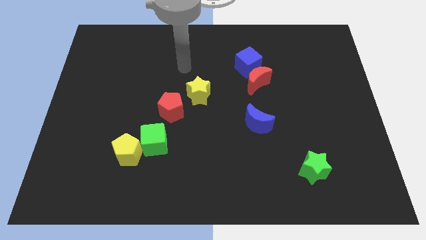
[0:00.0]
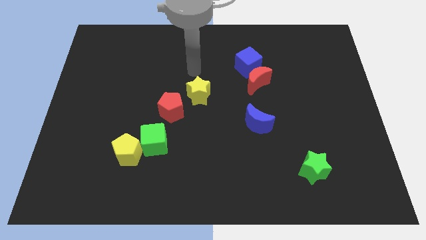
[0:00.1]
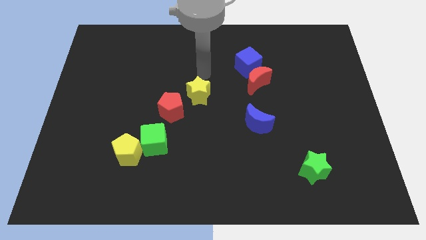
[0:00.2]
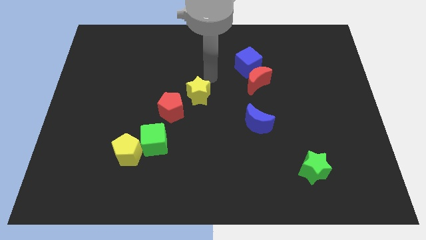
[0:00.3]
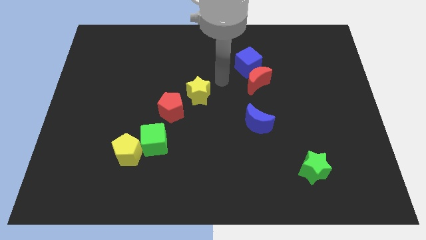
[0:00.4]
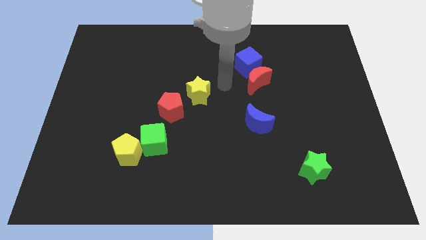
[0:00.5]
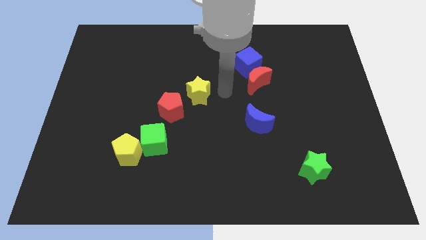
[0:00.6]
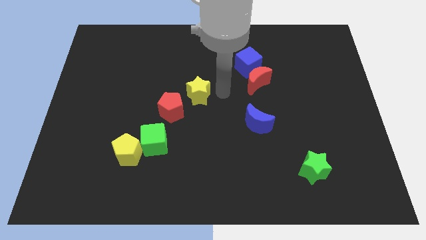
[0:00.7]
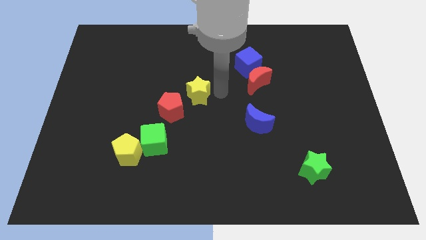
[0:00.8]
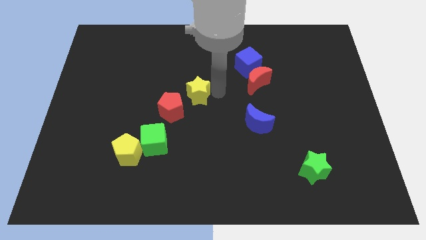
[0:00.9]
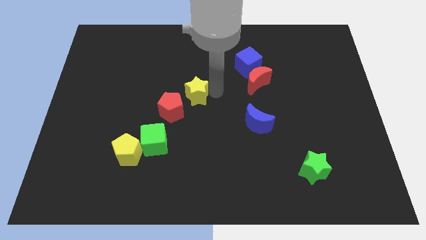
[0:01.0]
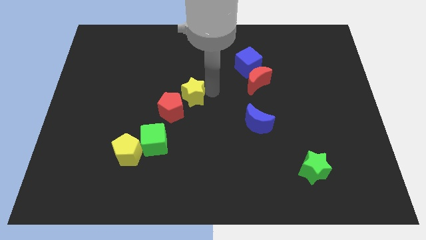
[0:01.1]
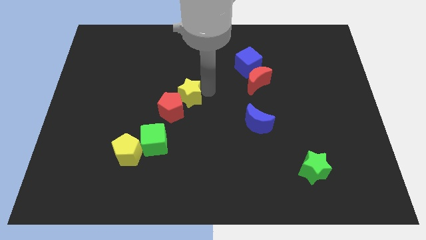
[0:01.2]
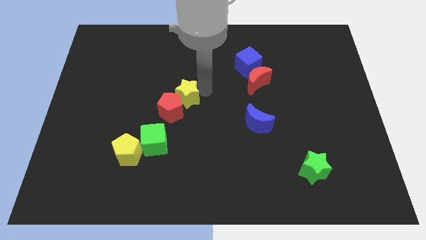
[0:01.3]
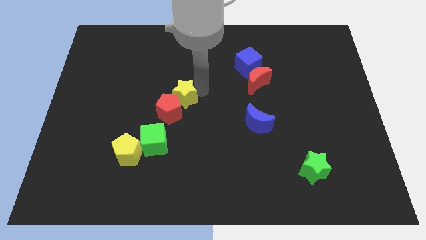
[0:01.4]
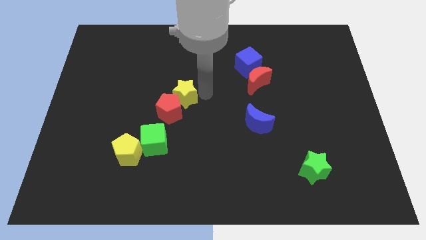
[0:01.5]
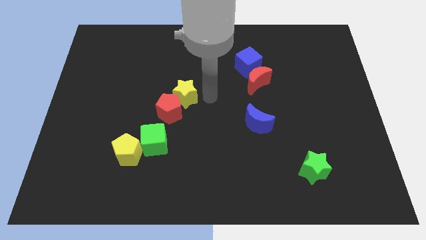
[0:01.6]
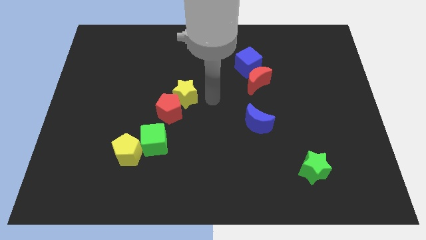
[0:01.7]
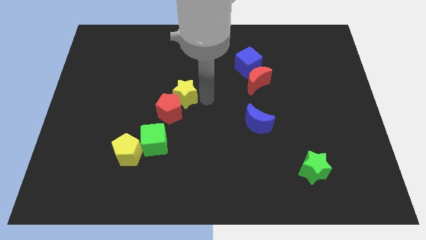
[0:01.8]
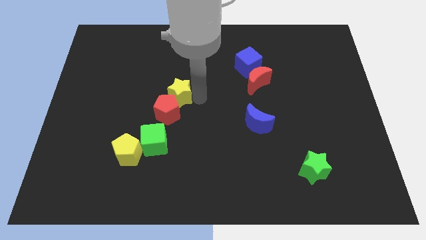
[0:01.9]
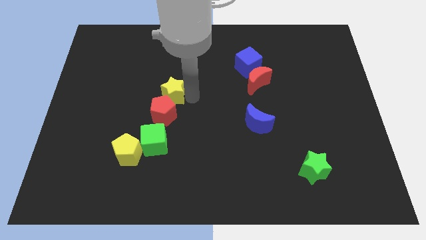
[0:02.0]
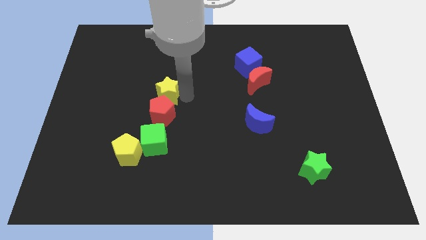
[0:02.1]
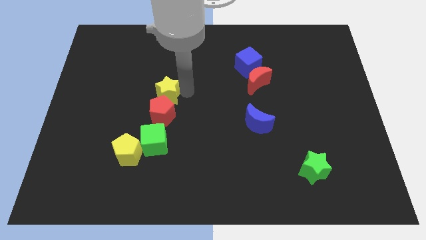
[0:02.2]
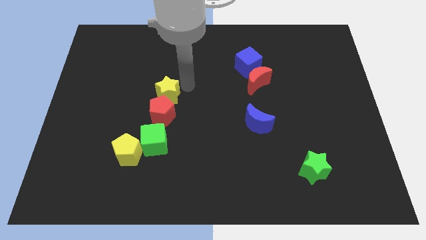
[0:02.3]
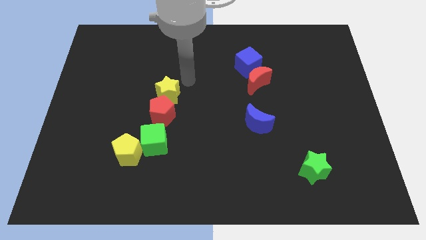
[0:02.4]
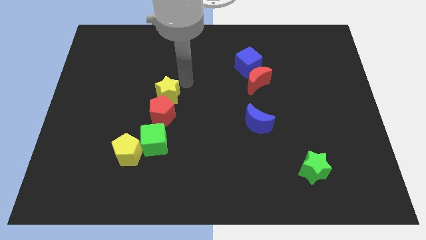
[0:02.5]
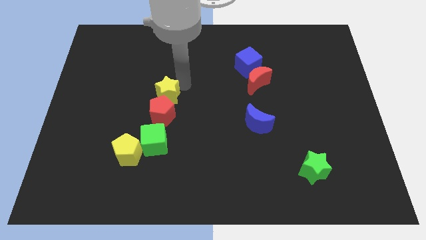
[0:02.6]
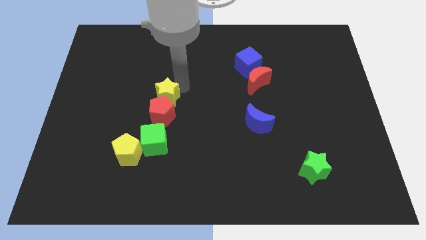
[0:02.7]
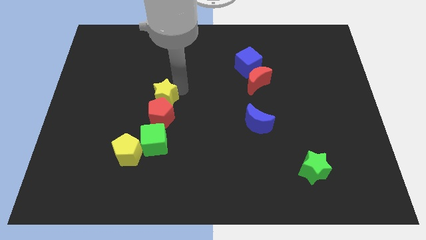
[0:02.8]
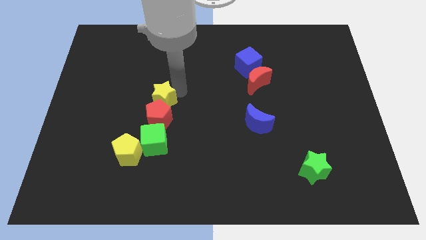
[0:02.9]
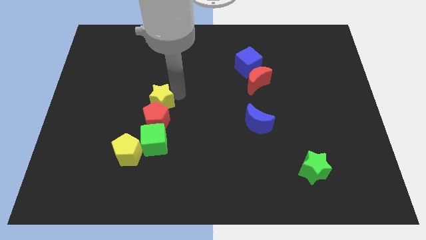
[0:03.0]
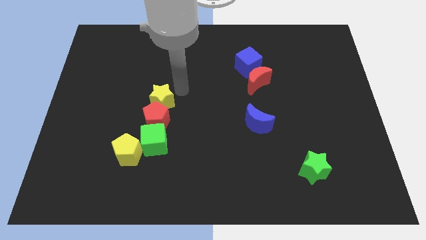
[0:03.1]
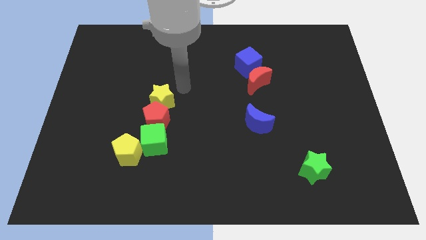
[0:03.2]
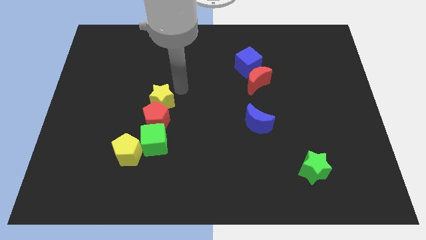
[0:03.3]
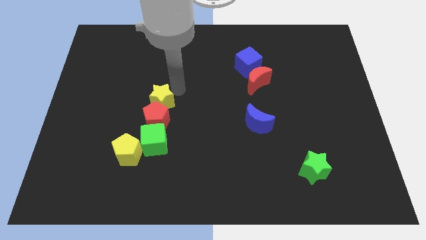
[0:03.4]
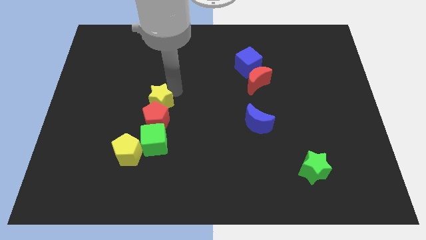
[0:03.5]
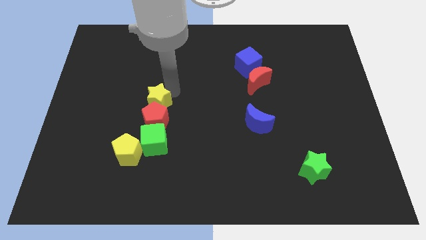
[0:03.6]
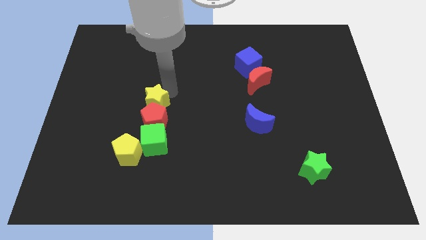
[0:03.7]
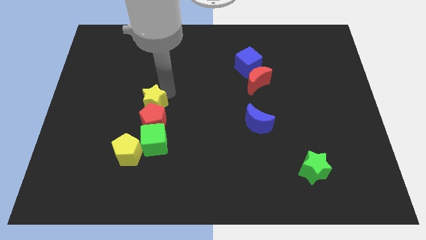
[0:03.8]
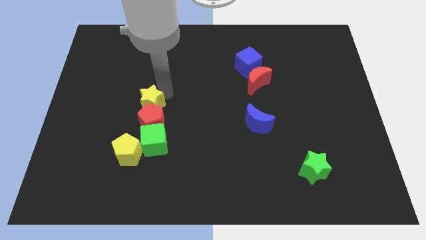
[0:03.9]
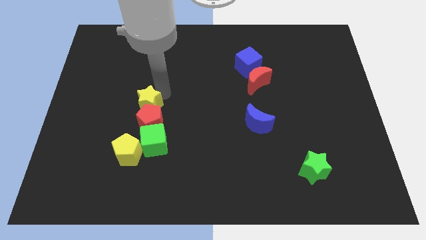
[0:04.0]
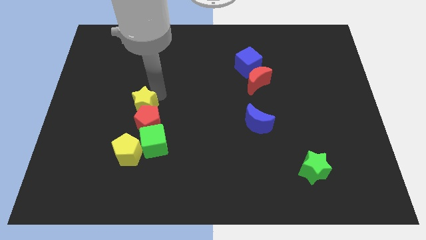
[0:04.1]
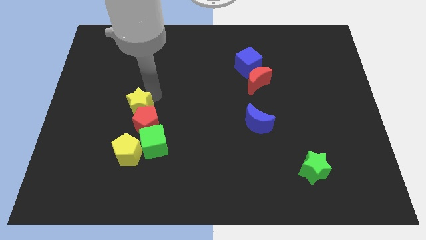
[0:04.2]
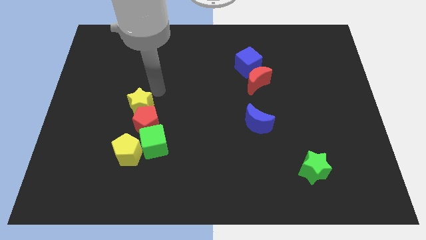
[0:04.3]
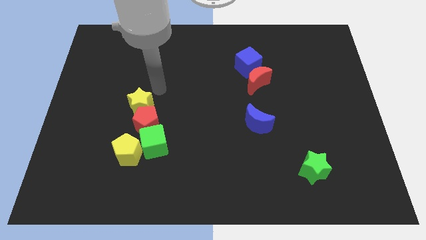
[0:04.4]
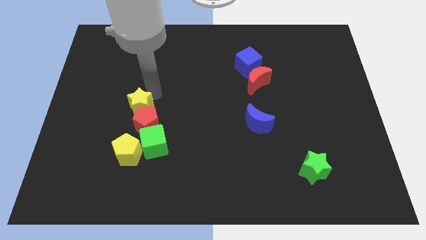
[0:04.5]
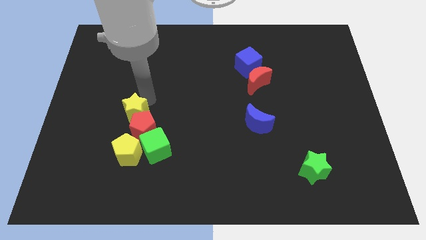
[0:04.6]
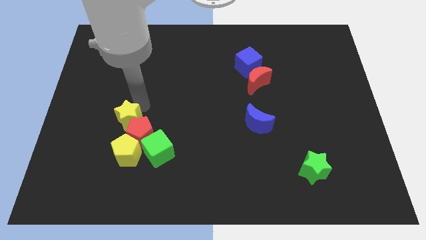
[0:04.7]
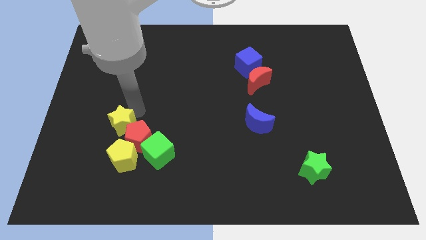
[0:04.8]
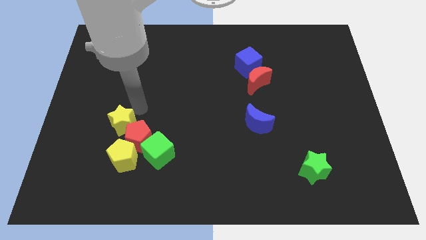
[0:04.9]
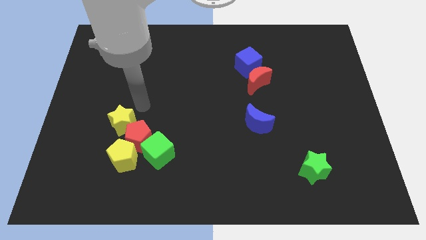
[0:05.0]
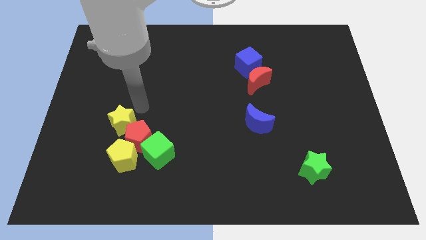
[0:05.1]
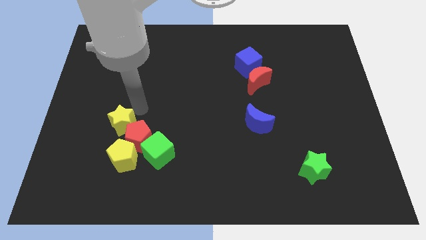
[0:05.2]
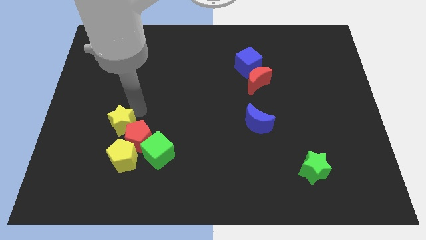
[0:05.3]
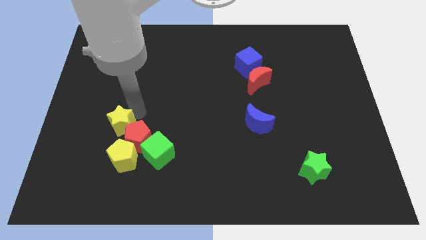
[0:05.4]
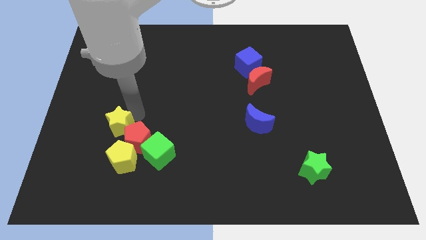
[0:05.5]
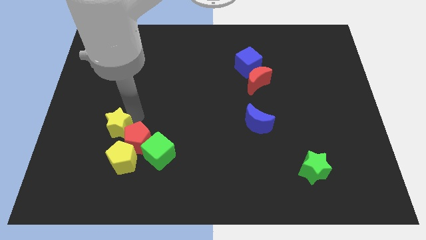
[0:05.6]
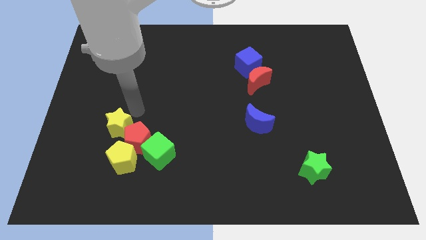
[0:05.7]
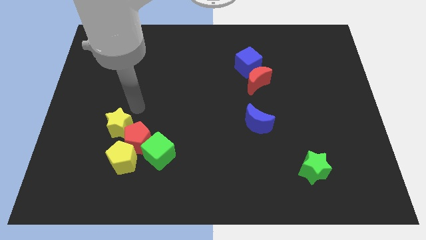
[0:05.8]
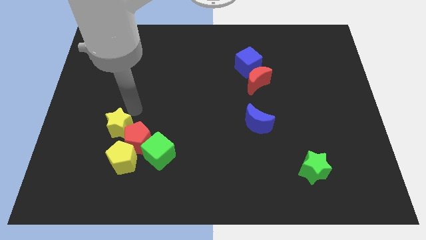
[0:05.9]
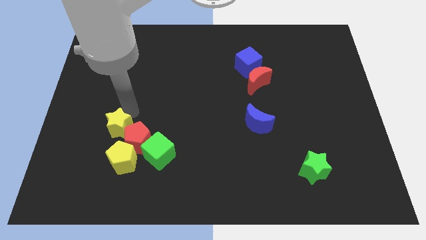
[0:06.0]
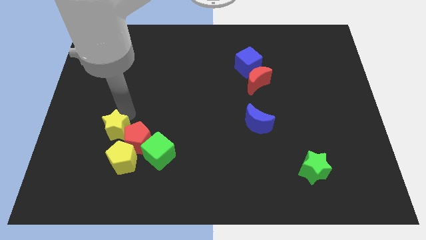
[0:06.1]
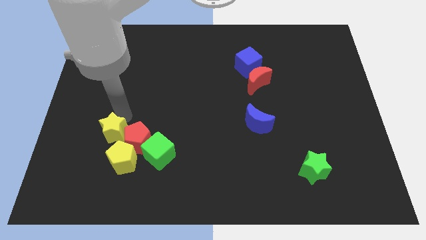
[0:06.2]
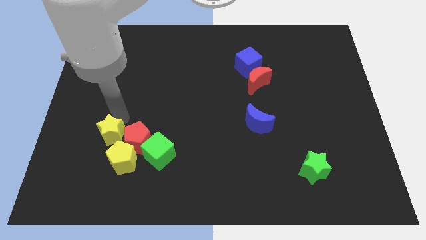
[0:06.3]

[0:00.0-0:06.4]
push the yellow star diagonally downwards and to the left

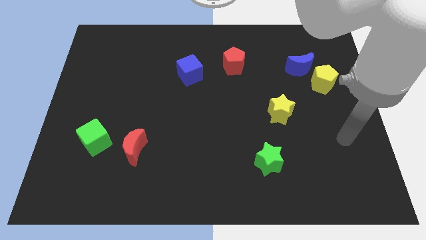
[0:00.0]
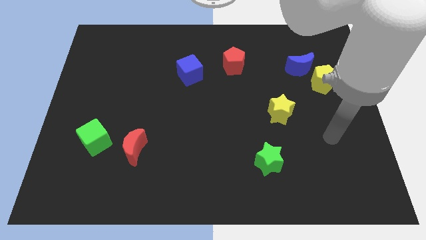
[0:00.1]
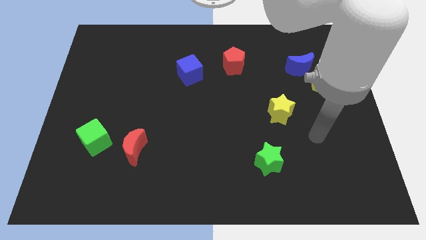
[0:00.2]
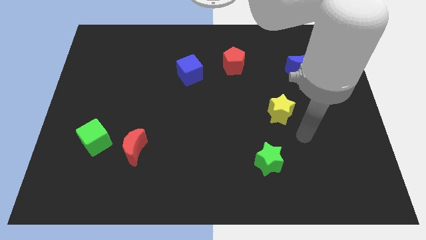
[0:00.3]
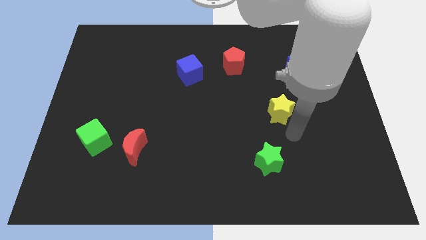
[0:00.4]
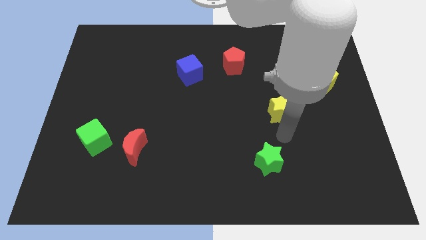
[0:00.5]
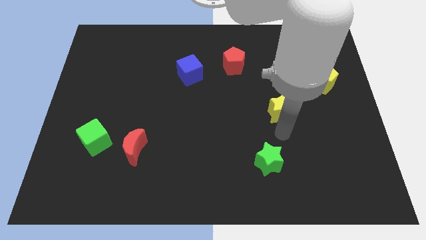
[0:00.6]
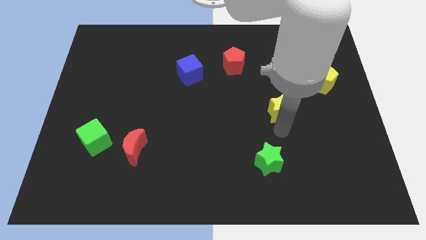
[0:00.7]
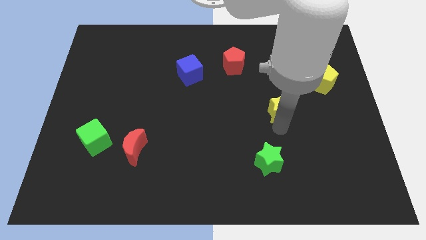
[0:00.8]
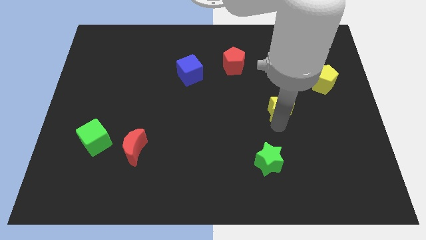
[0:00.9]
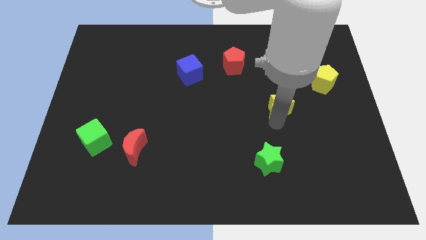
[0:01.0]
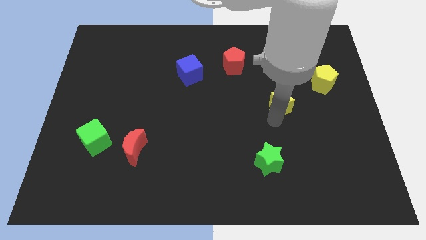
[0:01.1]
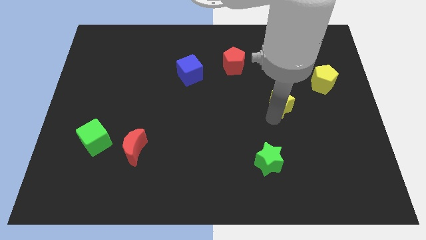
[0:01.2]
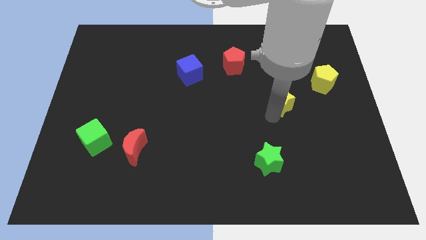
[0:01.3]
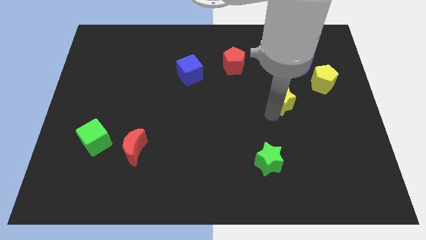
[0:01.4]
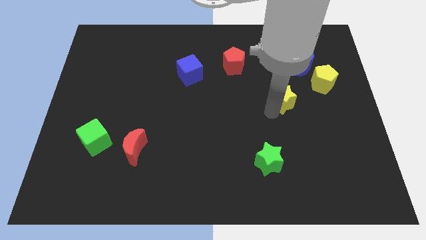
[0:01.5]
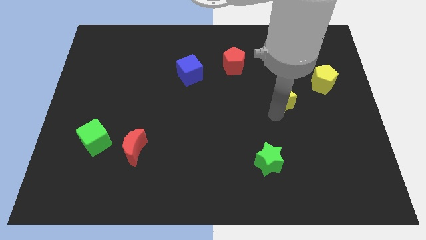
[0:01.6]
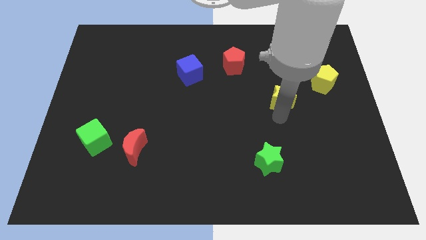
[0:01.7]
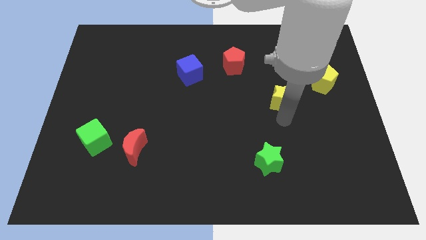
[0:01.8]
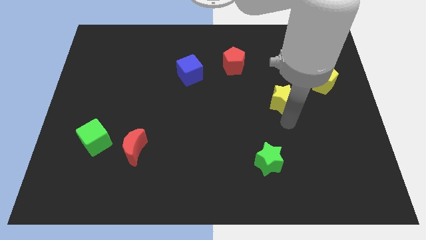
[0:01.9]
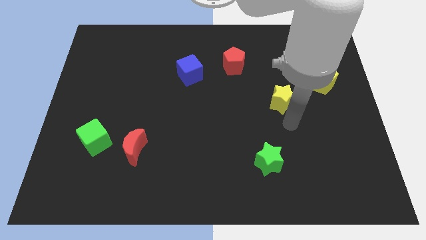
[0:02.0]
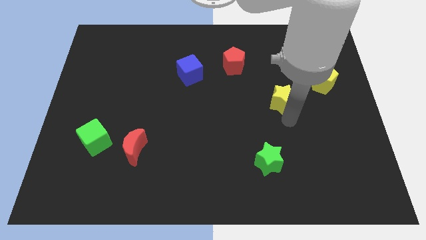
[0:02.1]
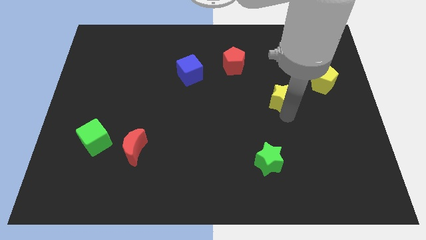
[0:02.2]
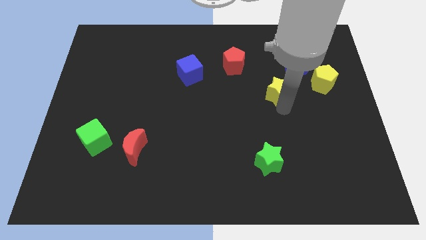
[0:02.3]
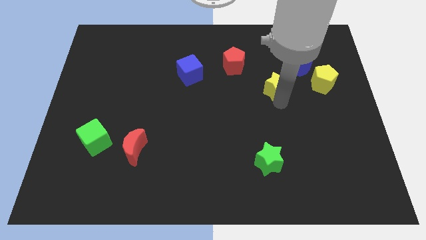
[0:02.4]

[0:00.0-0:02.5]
slightly slide the yellow star up
